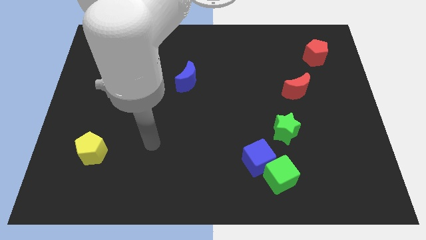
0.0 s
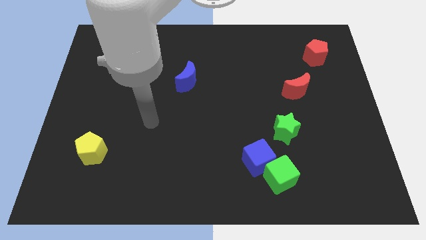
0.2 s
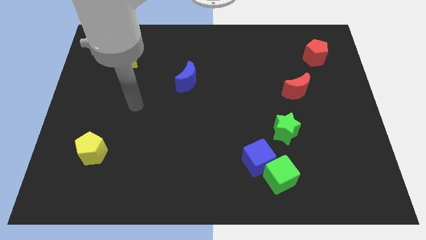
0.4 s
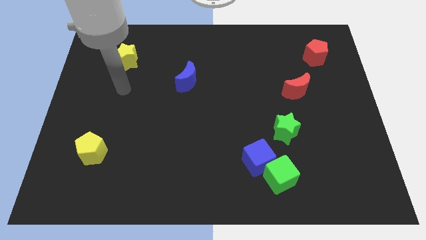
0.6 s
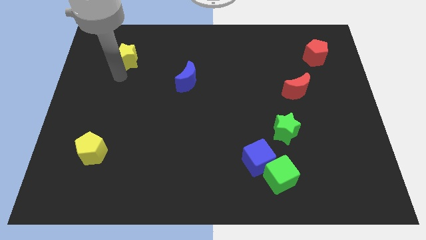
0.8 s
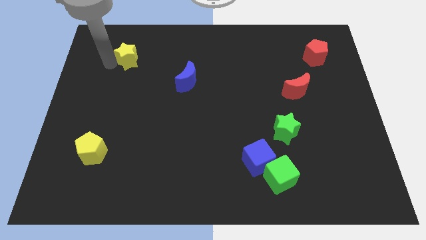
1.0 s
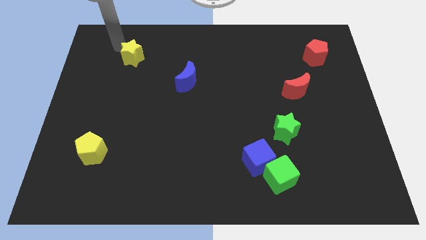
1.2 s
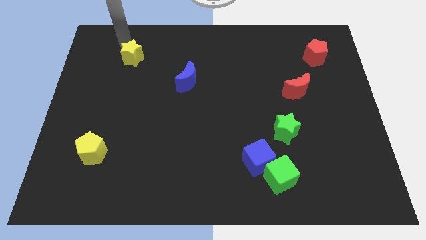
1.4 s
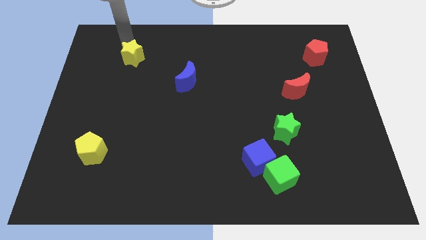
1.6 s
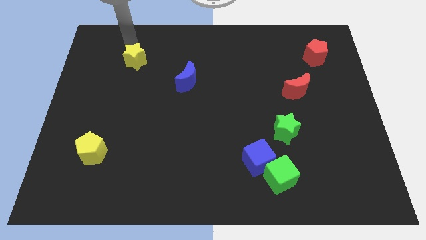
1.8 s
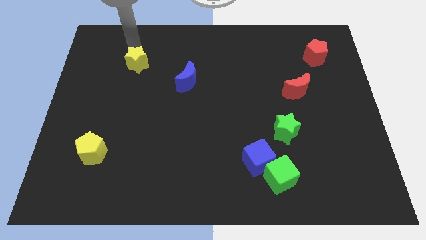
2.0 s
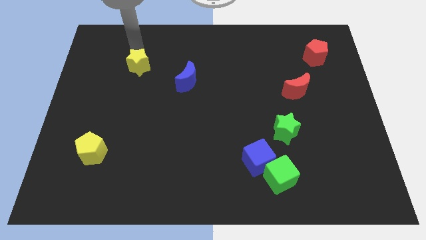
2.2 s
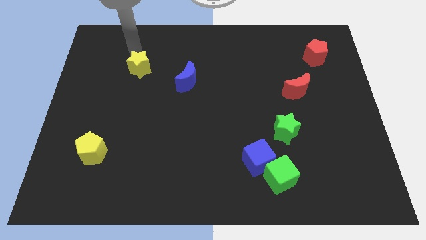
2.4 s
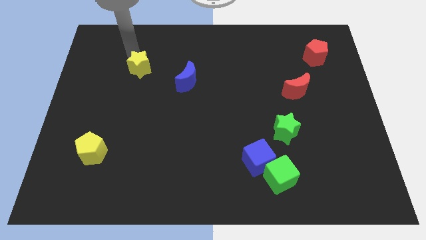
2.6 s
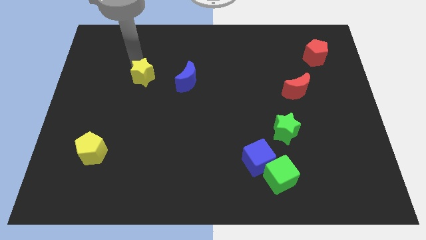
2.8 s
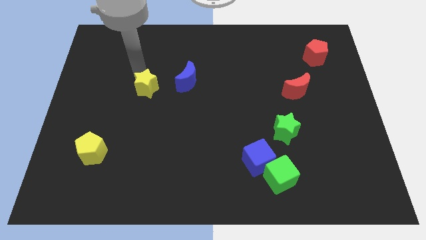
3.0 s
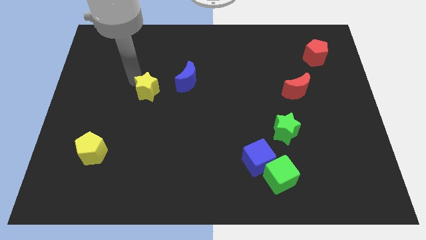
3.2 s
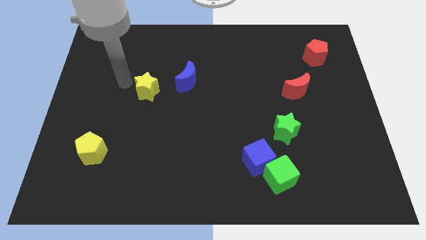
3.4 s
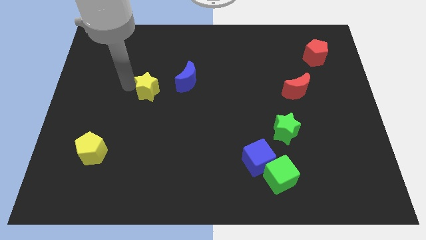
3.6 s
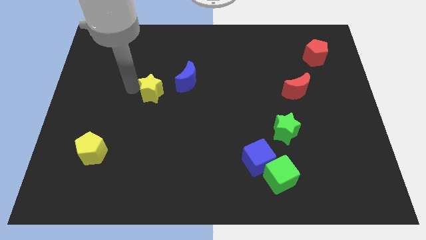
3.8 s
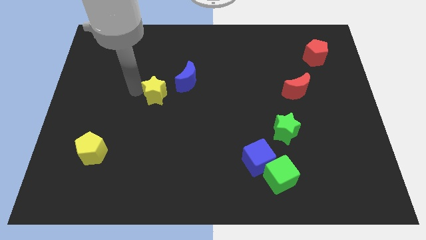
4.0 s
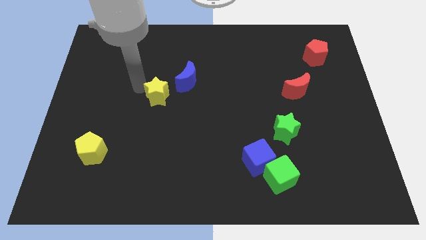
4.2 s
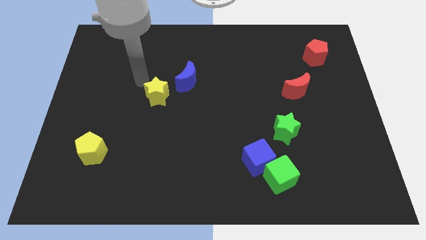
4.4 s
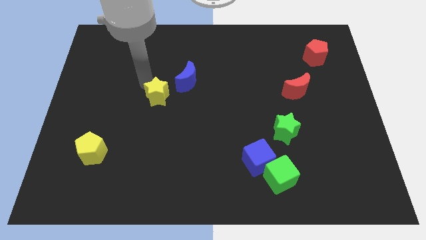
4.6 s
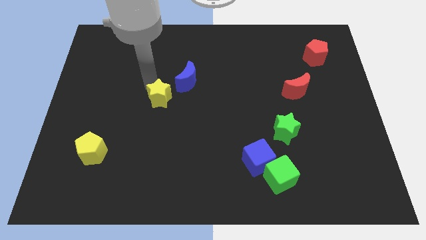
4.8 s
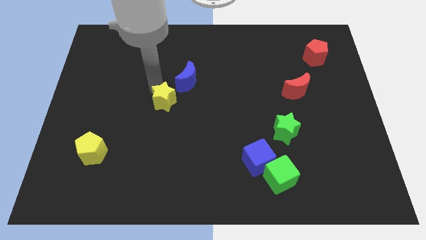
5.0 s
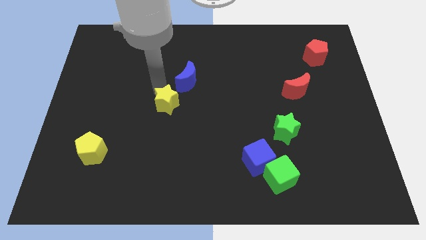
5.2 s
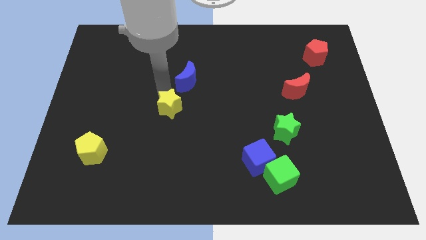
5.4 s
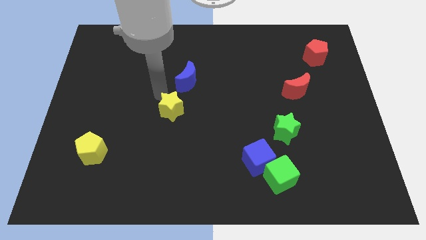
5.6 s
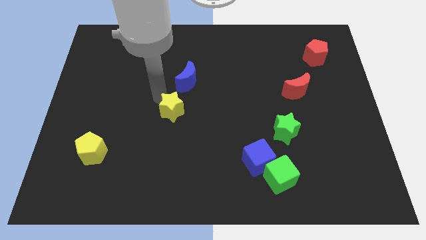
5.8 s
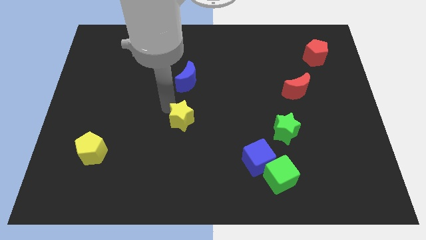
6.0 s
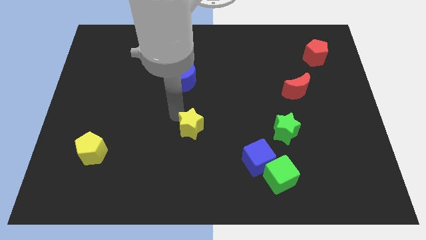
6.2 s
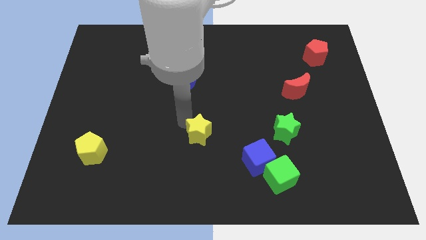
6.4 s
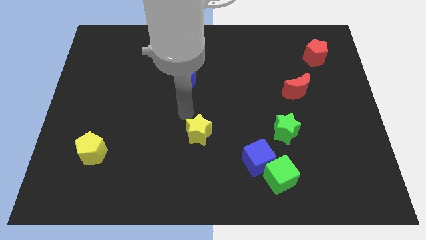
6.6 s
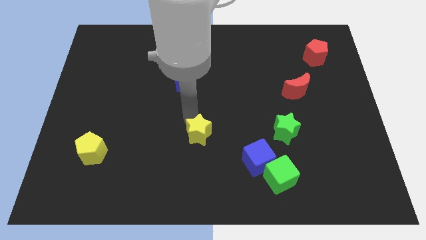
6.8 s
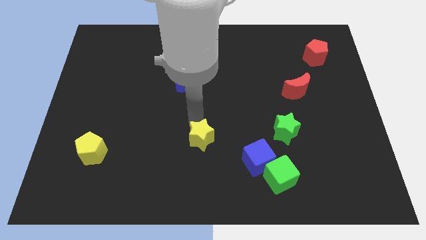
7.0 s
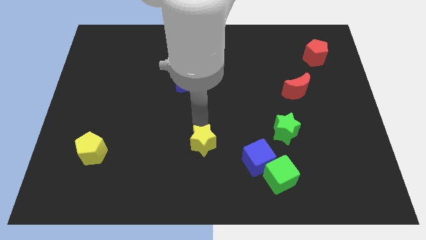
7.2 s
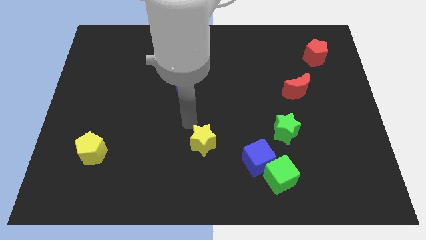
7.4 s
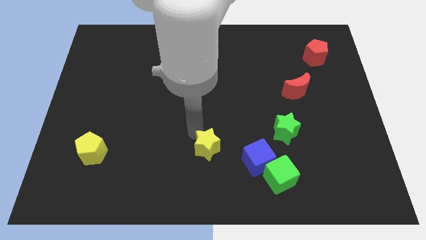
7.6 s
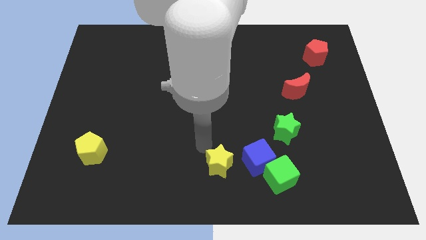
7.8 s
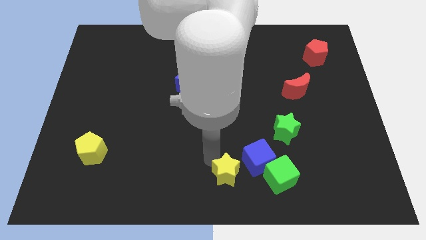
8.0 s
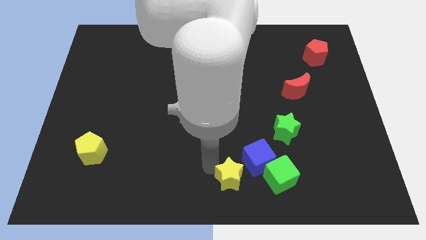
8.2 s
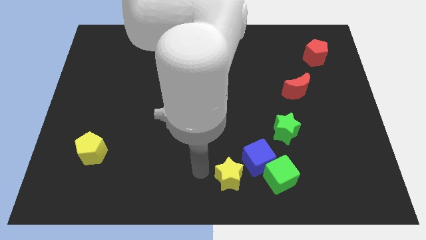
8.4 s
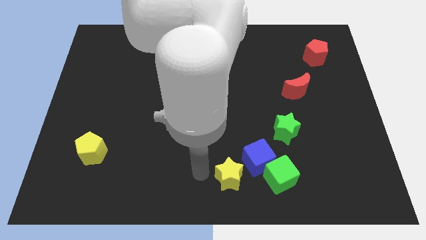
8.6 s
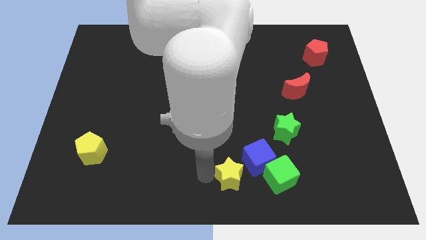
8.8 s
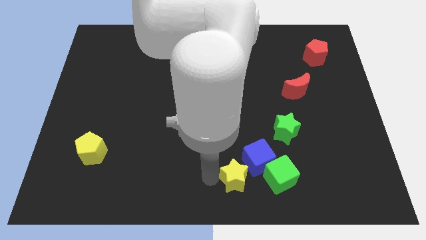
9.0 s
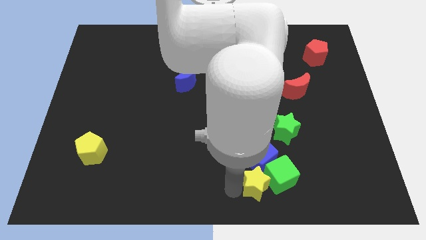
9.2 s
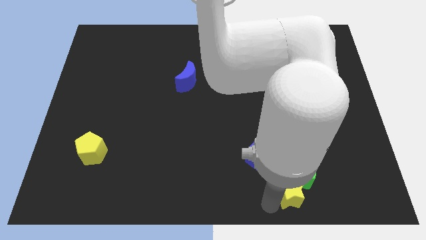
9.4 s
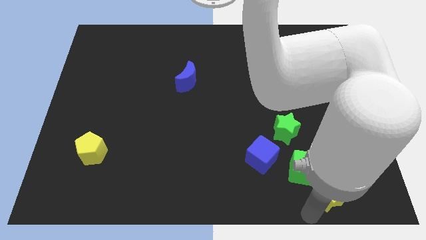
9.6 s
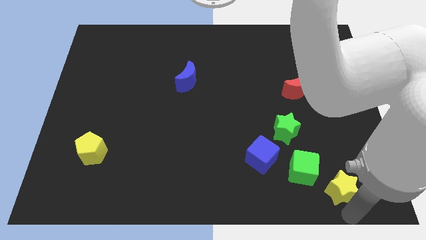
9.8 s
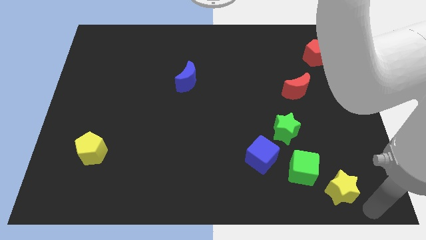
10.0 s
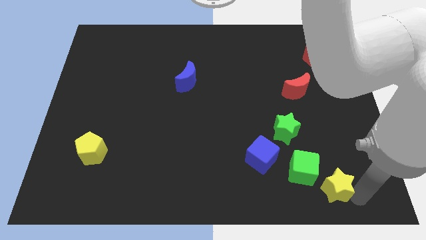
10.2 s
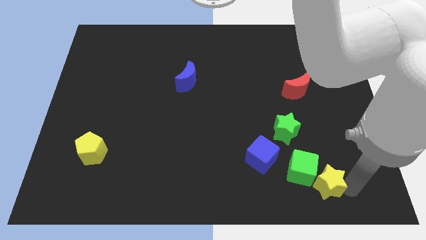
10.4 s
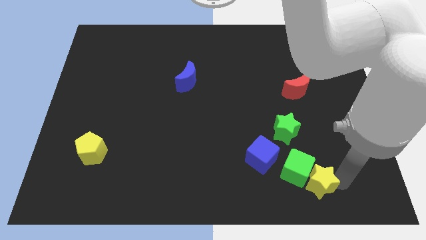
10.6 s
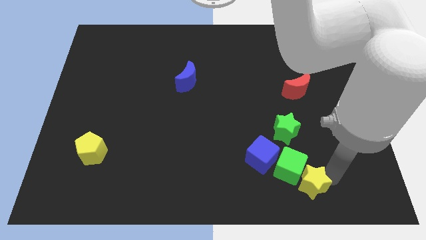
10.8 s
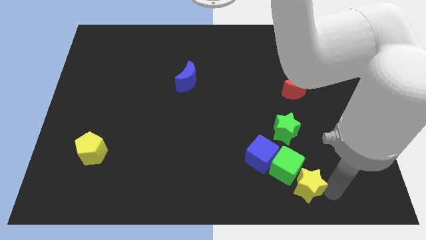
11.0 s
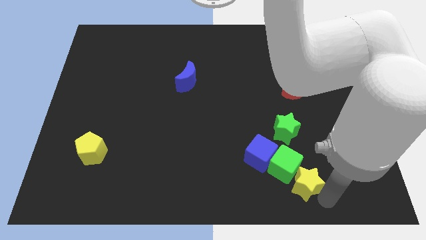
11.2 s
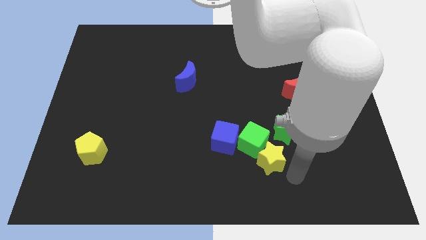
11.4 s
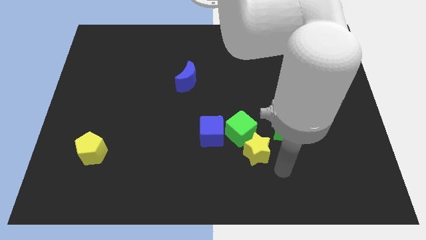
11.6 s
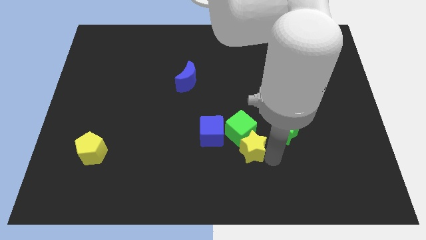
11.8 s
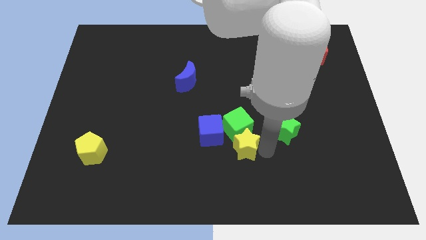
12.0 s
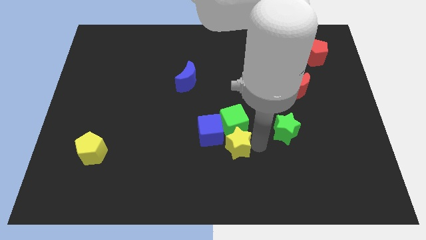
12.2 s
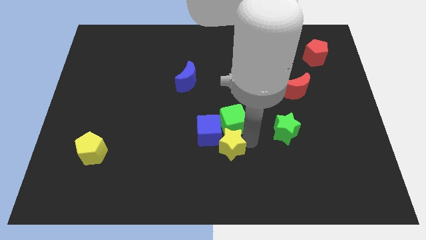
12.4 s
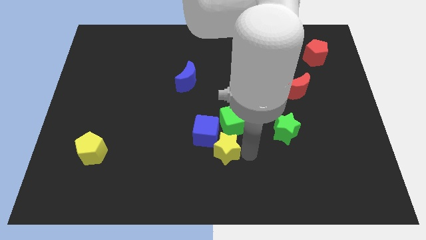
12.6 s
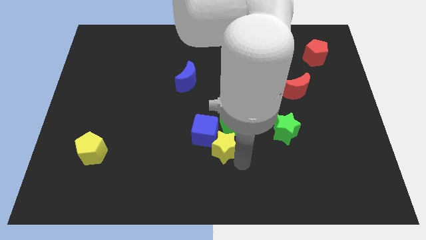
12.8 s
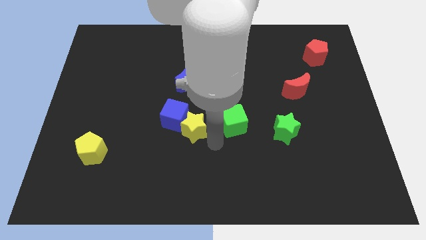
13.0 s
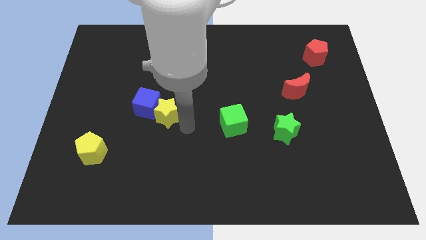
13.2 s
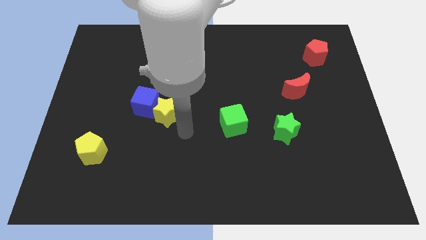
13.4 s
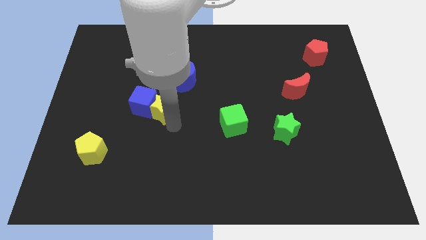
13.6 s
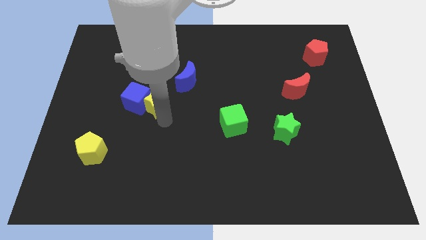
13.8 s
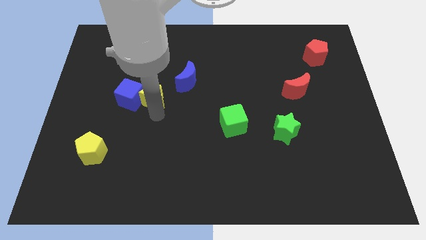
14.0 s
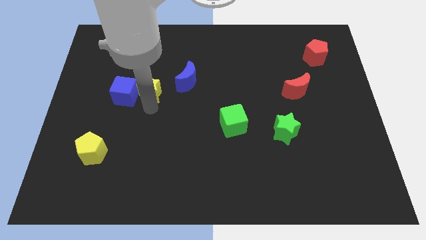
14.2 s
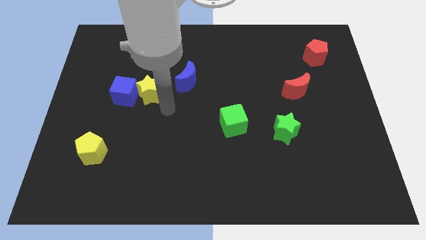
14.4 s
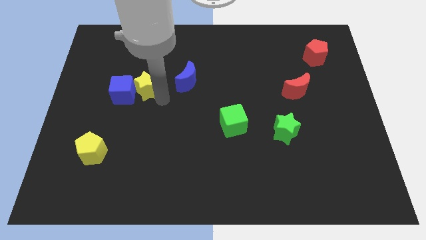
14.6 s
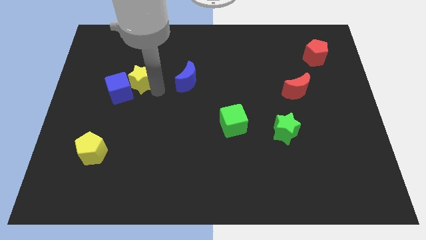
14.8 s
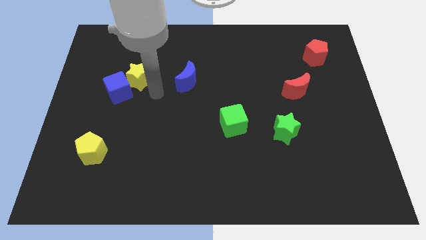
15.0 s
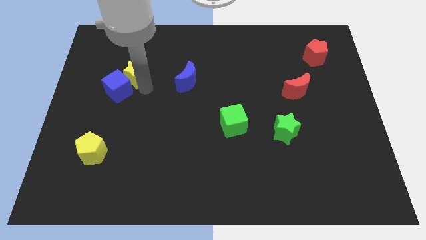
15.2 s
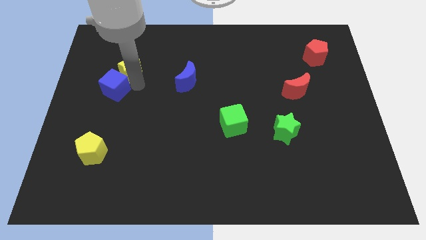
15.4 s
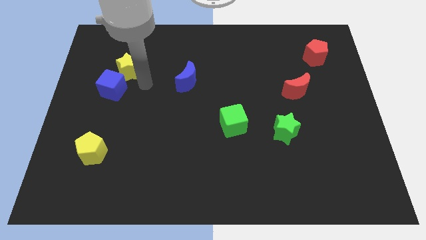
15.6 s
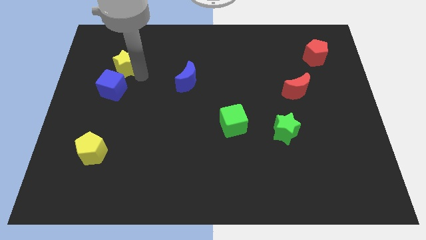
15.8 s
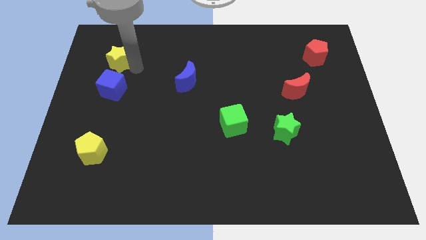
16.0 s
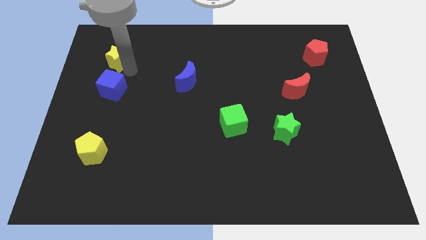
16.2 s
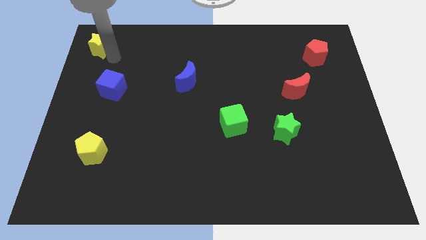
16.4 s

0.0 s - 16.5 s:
slide the yellow star to the top left corner
